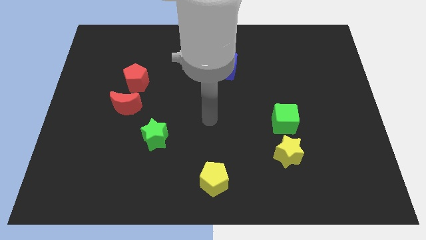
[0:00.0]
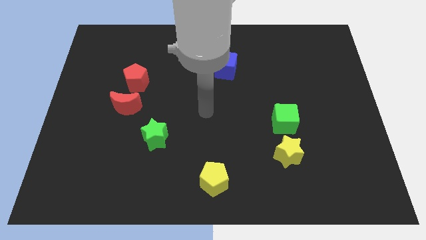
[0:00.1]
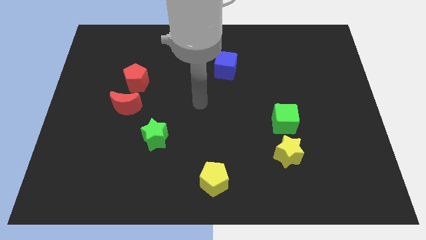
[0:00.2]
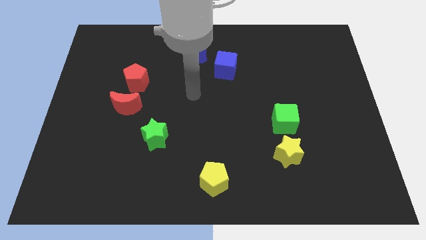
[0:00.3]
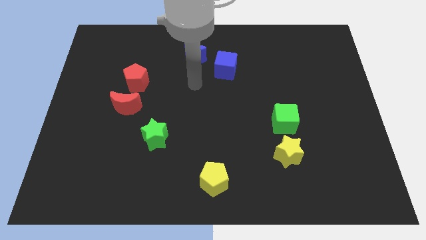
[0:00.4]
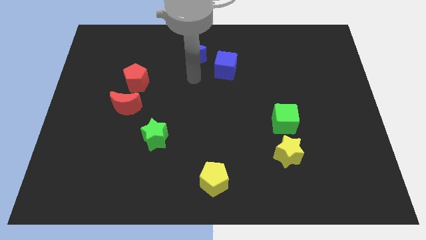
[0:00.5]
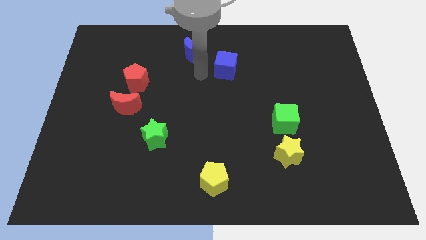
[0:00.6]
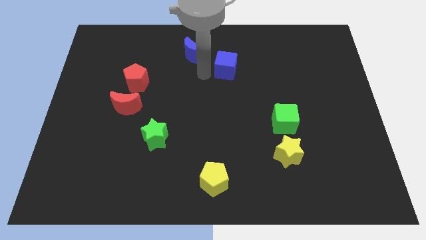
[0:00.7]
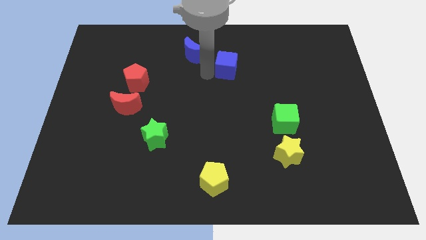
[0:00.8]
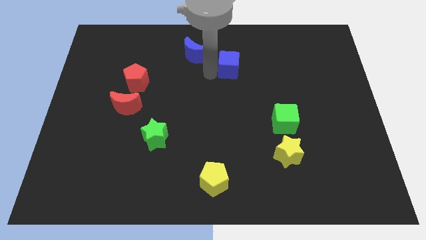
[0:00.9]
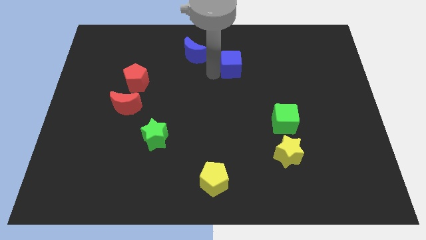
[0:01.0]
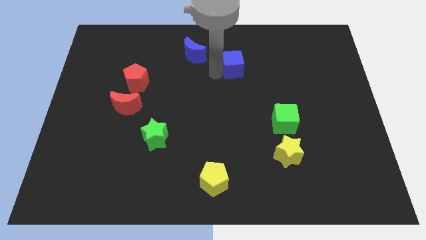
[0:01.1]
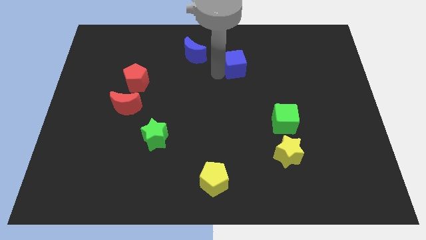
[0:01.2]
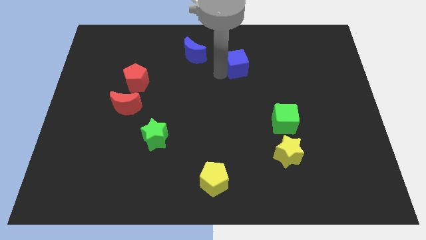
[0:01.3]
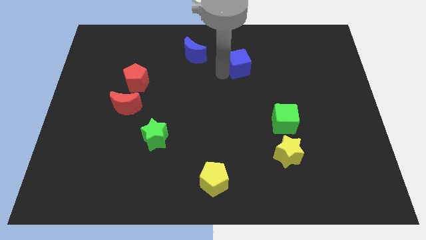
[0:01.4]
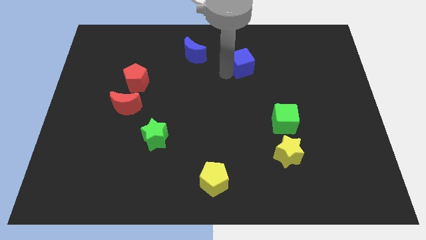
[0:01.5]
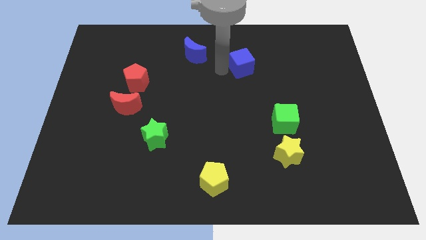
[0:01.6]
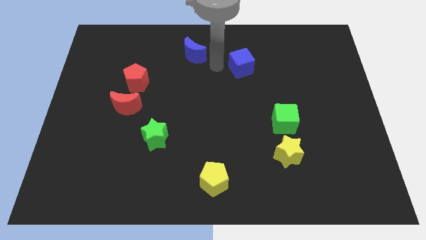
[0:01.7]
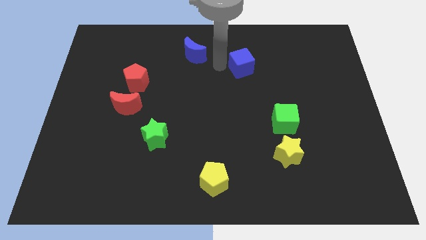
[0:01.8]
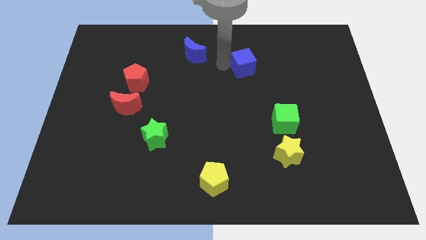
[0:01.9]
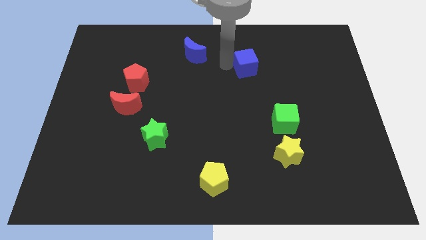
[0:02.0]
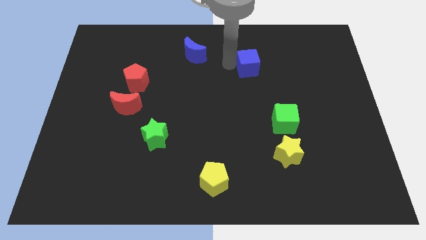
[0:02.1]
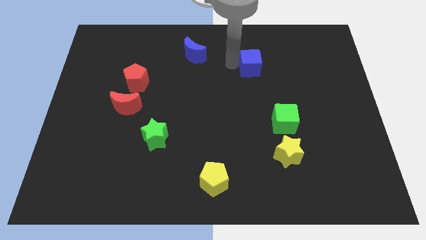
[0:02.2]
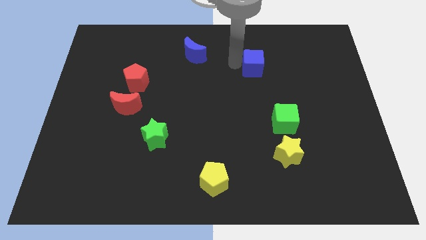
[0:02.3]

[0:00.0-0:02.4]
move the blue cube a bit to the right

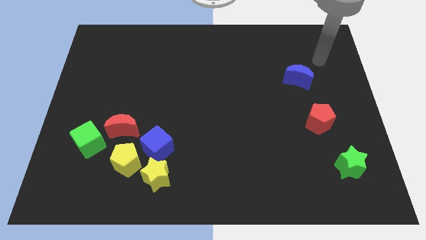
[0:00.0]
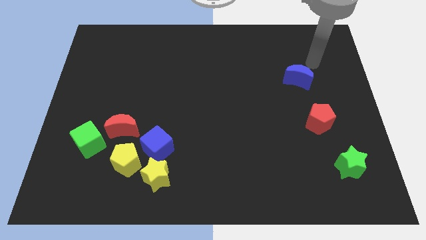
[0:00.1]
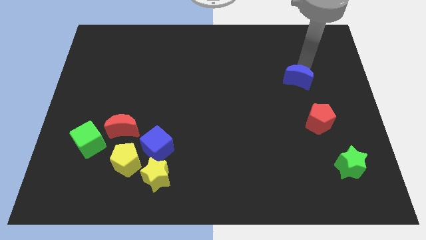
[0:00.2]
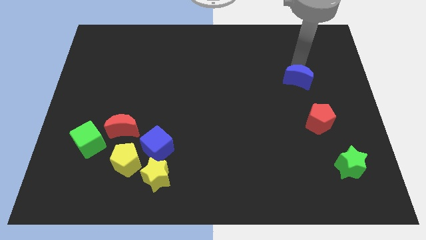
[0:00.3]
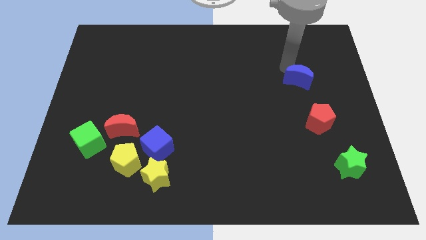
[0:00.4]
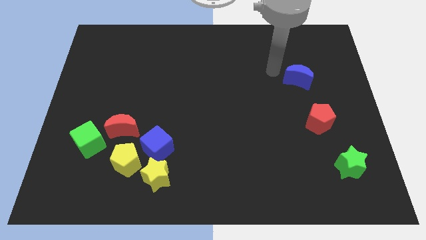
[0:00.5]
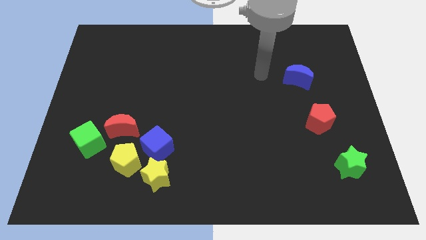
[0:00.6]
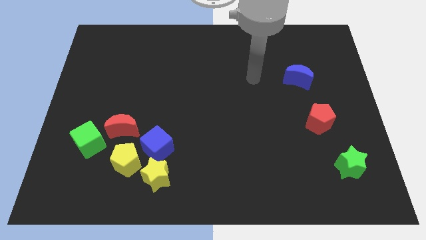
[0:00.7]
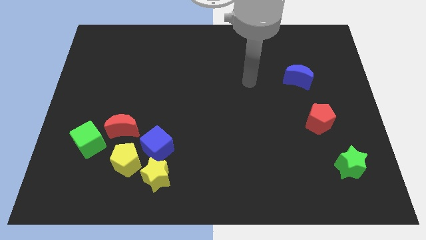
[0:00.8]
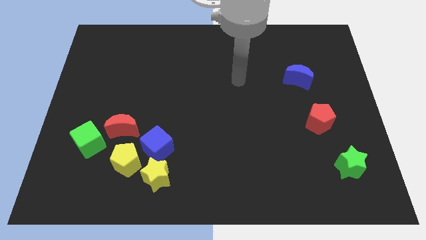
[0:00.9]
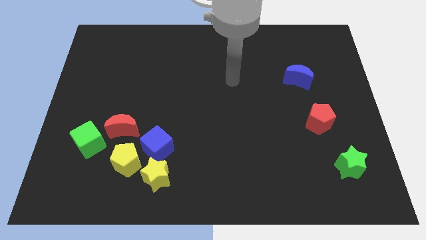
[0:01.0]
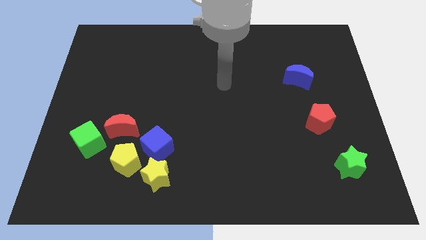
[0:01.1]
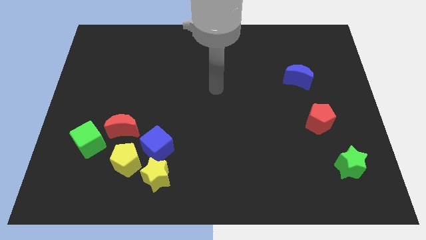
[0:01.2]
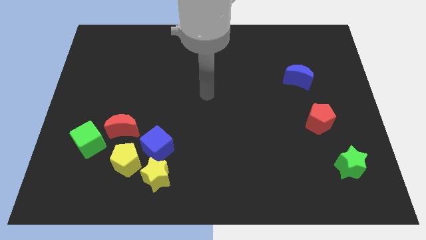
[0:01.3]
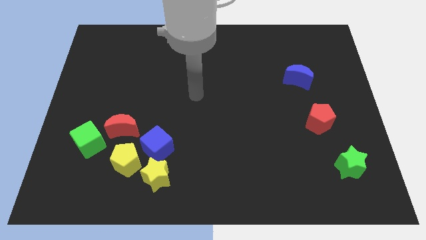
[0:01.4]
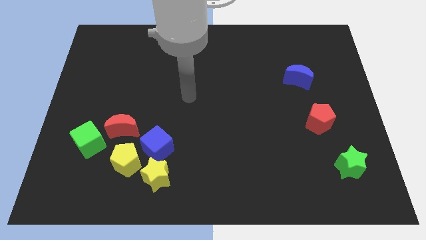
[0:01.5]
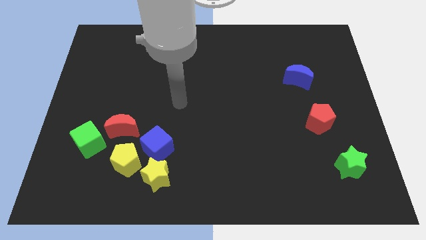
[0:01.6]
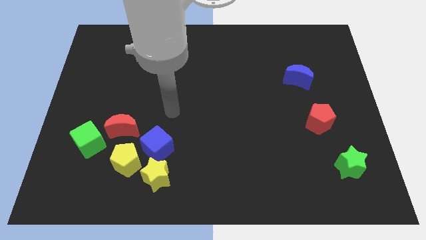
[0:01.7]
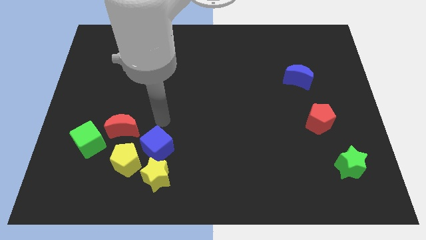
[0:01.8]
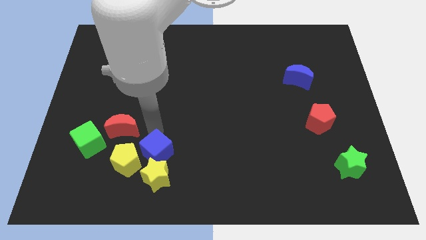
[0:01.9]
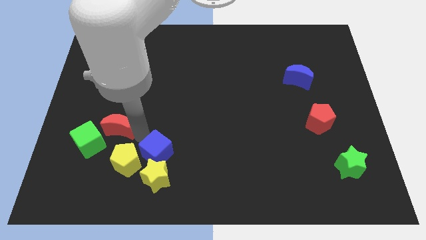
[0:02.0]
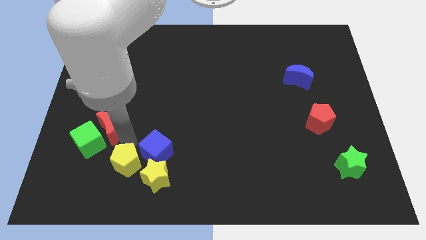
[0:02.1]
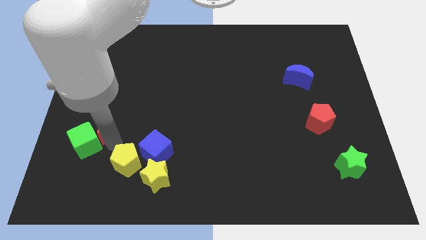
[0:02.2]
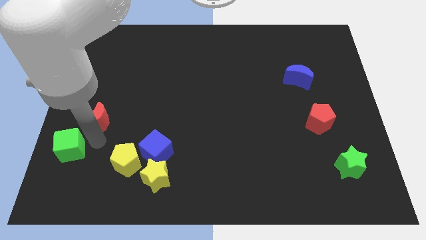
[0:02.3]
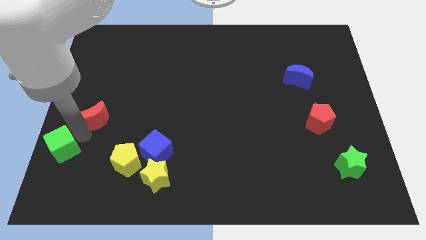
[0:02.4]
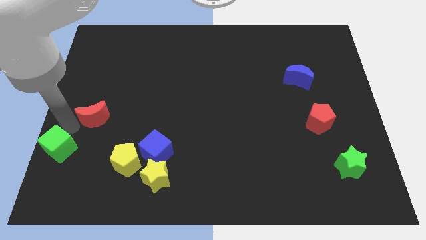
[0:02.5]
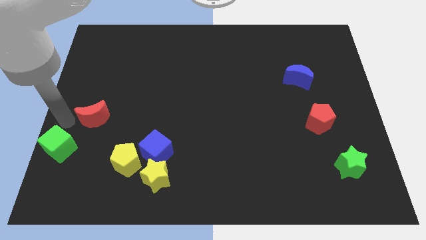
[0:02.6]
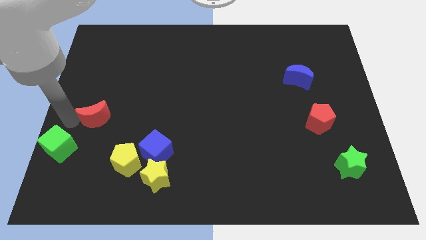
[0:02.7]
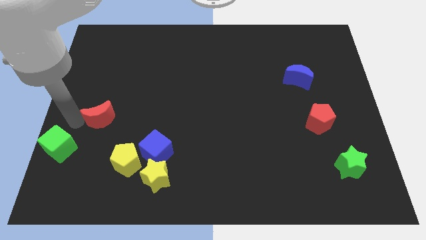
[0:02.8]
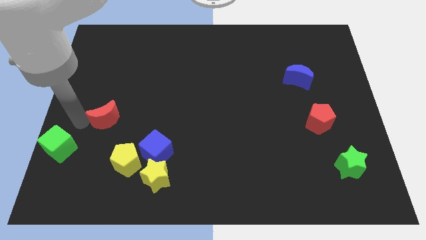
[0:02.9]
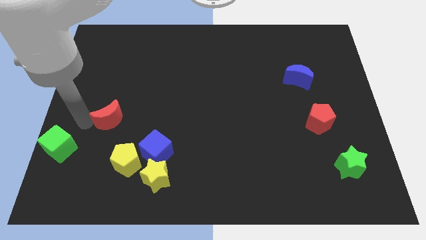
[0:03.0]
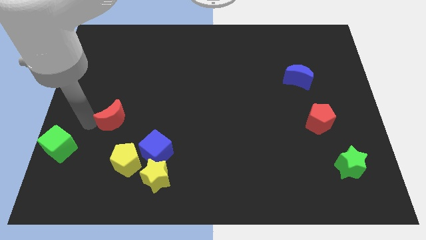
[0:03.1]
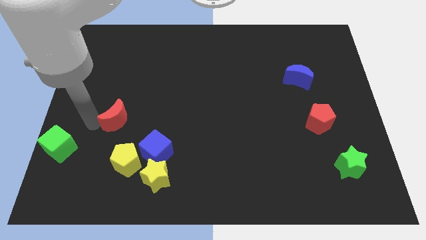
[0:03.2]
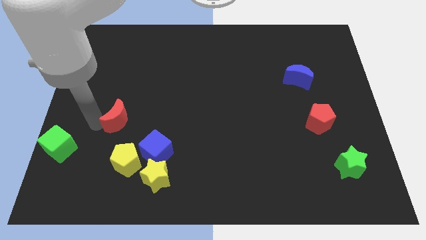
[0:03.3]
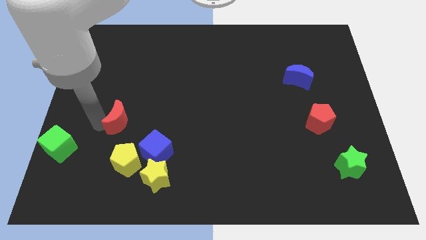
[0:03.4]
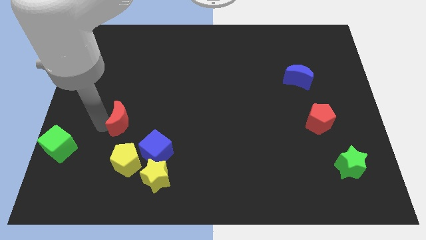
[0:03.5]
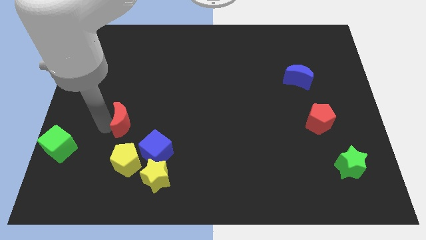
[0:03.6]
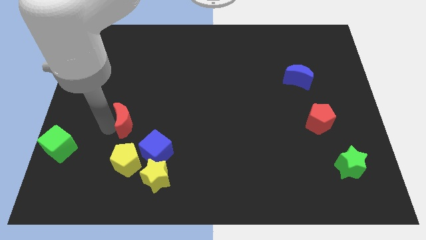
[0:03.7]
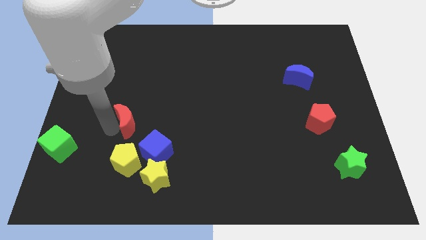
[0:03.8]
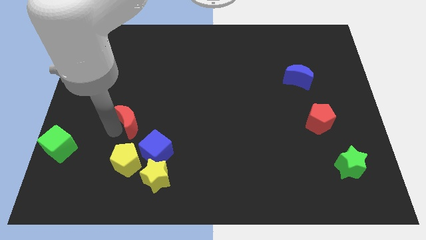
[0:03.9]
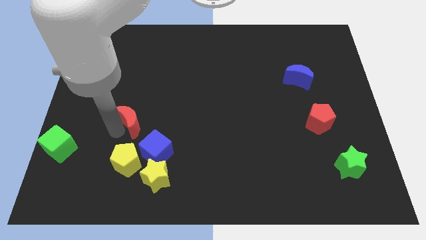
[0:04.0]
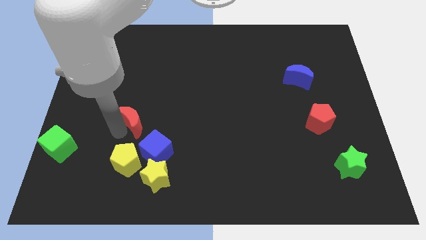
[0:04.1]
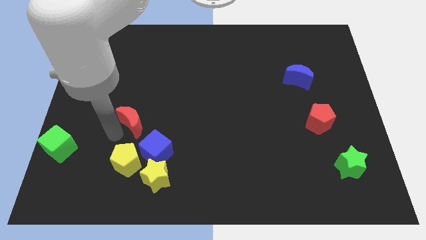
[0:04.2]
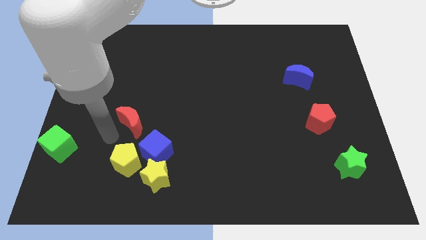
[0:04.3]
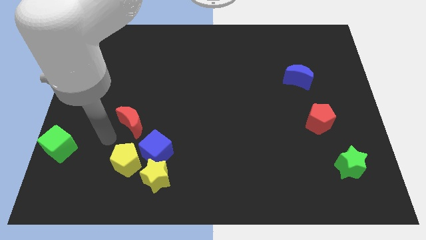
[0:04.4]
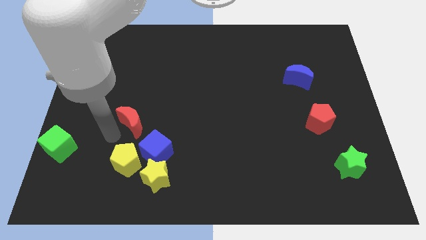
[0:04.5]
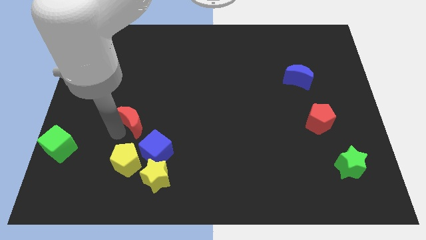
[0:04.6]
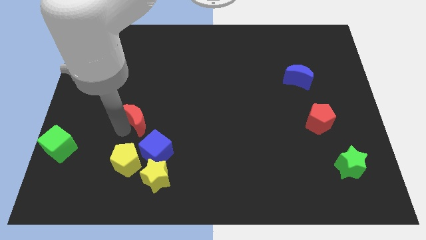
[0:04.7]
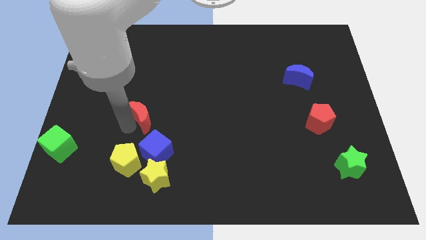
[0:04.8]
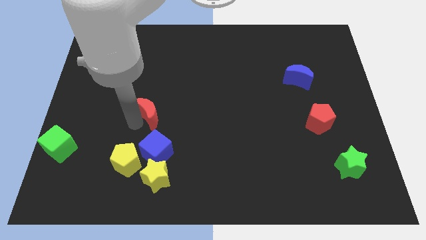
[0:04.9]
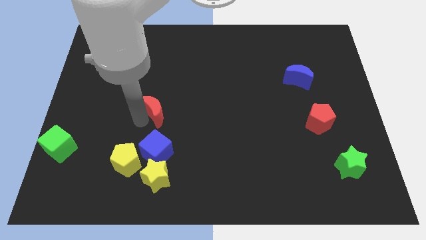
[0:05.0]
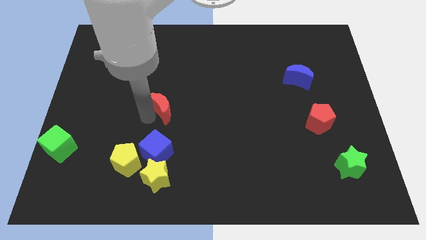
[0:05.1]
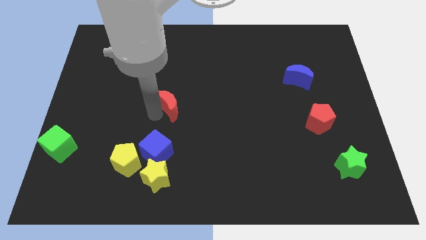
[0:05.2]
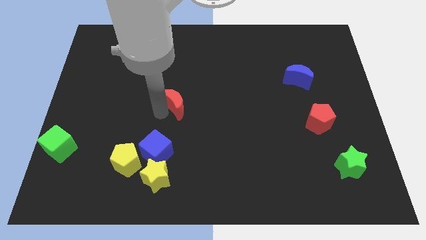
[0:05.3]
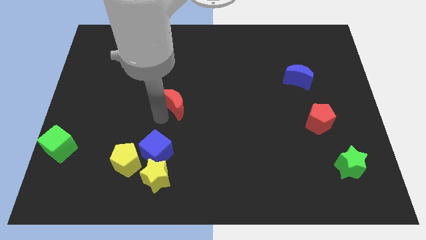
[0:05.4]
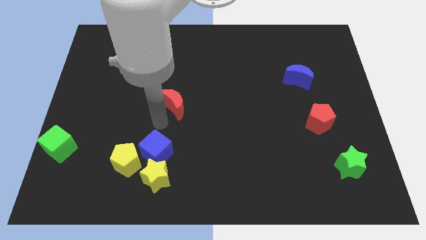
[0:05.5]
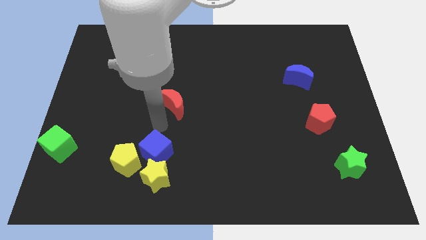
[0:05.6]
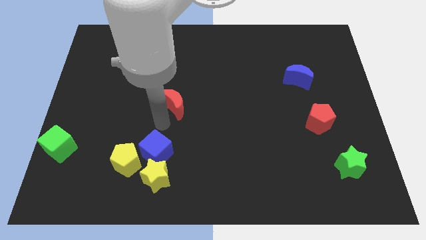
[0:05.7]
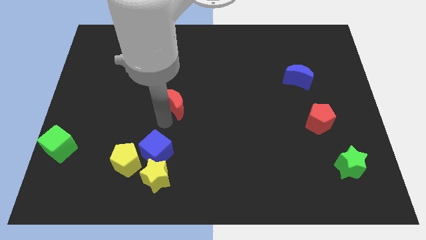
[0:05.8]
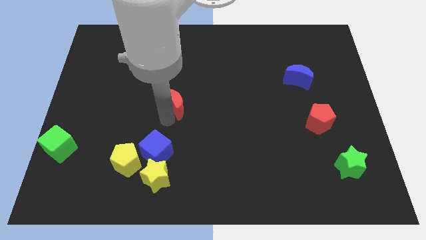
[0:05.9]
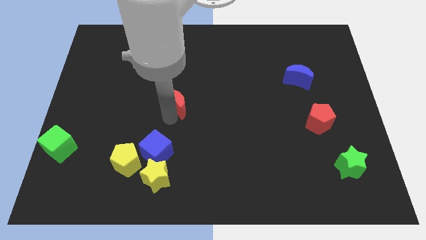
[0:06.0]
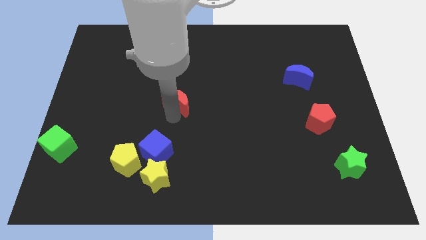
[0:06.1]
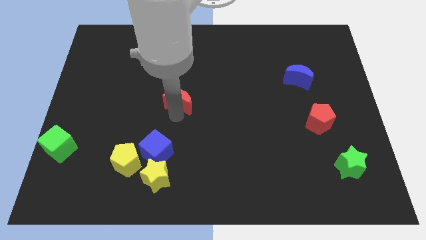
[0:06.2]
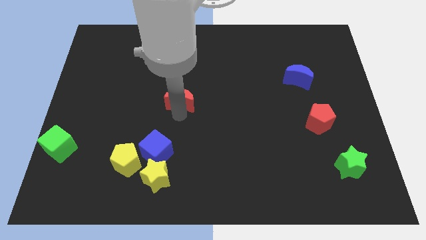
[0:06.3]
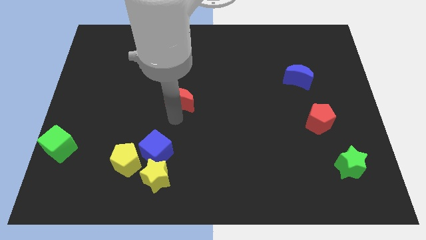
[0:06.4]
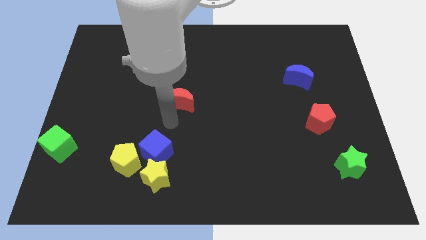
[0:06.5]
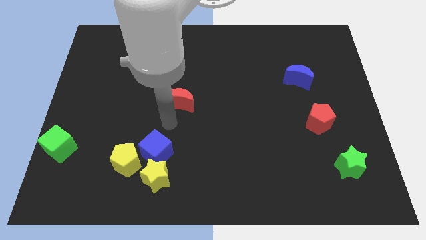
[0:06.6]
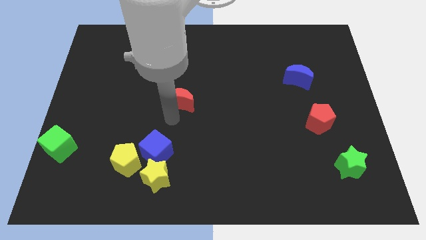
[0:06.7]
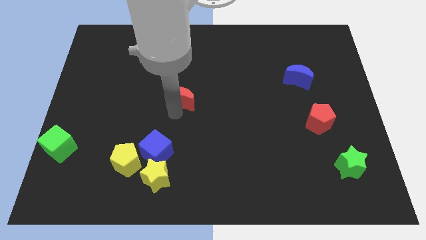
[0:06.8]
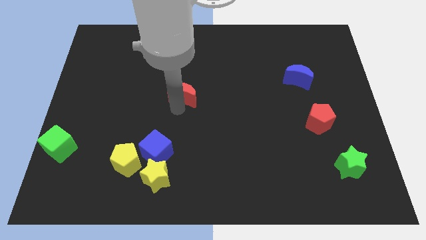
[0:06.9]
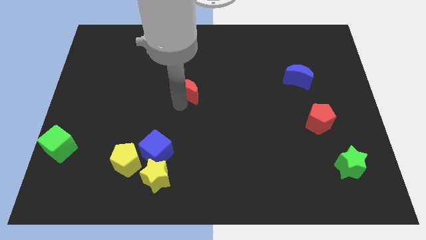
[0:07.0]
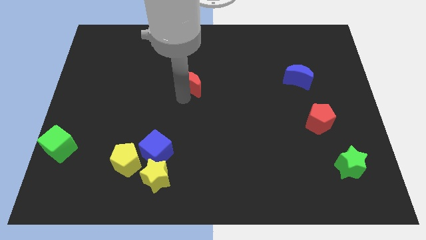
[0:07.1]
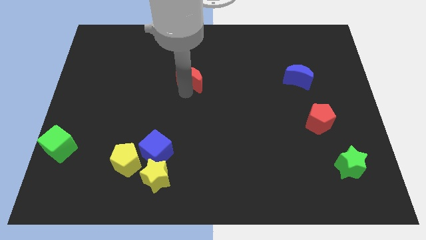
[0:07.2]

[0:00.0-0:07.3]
slide the red moon upwards and then to the right
